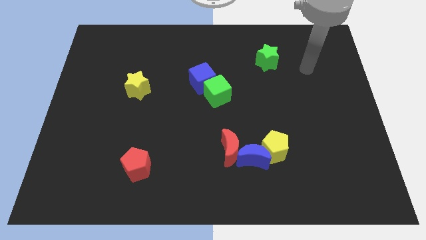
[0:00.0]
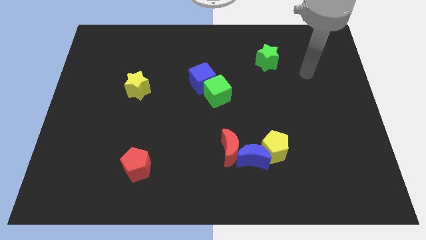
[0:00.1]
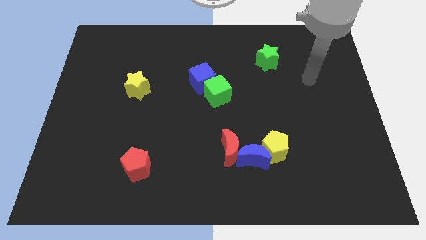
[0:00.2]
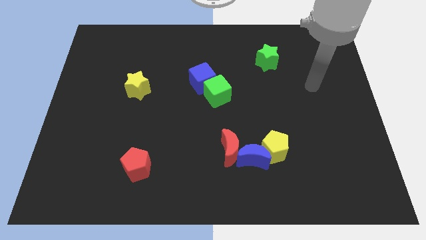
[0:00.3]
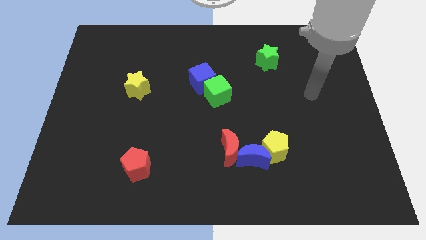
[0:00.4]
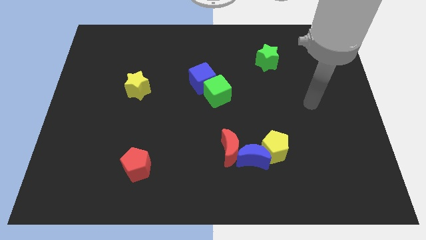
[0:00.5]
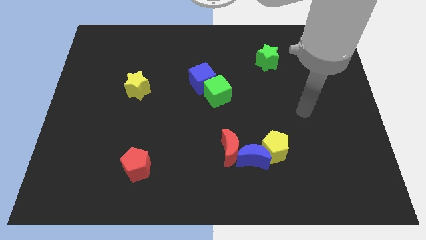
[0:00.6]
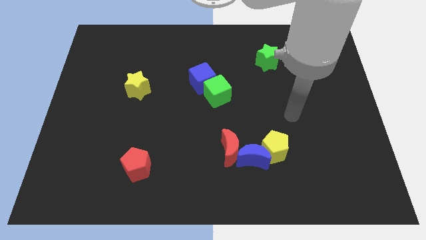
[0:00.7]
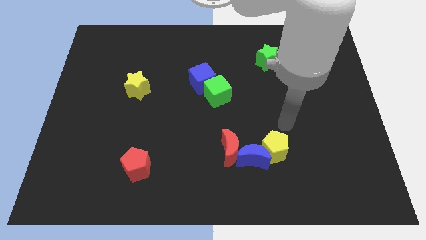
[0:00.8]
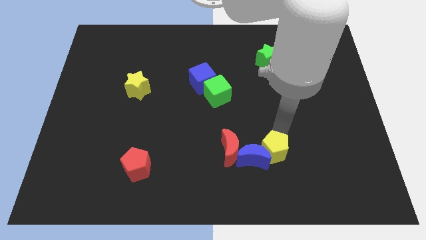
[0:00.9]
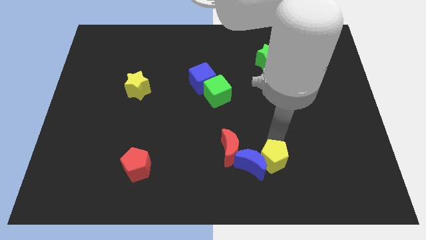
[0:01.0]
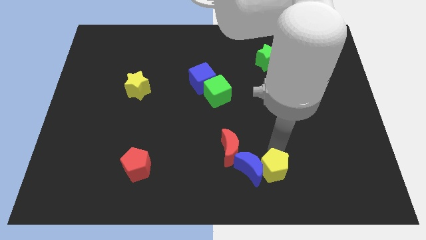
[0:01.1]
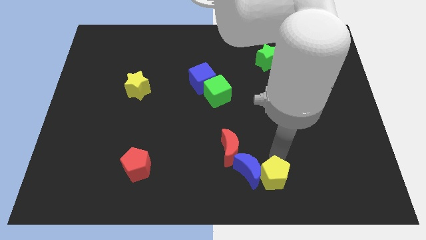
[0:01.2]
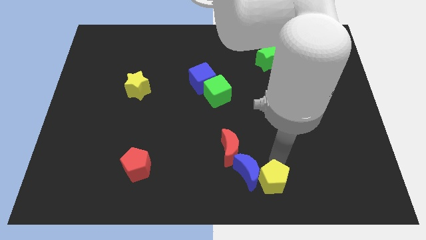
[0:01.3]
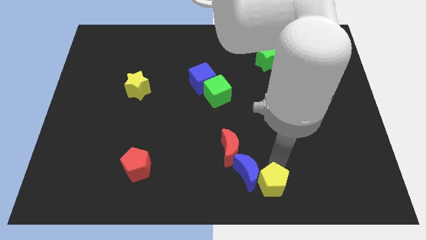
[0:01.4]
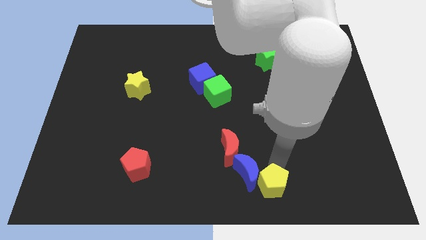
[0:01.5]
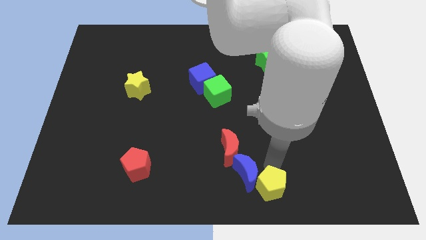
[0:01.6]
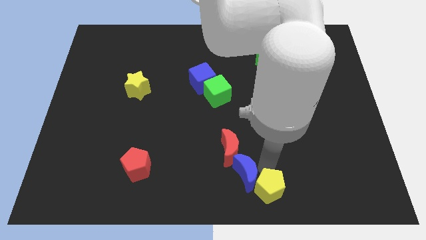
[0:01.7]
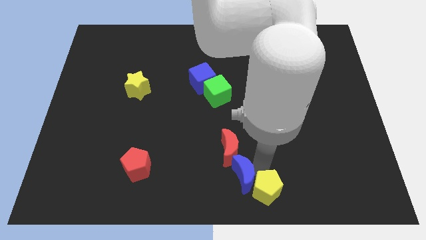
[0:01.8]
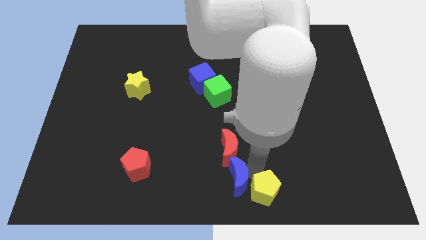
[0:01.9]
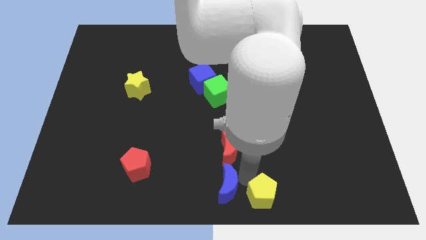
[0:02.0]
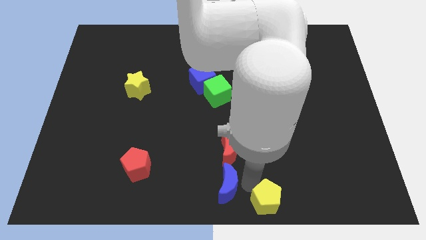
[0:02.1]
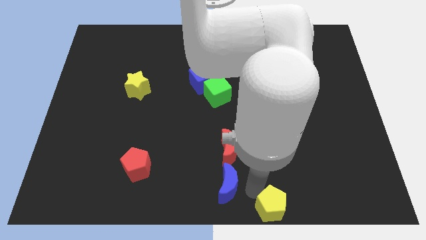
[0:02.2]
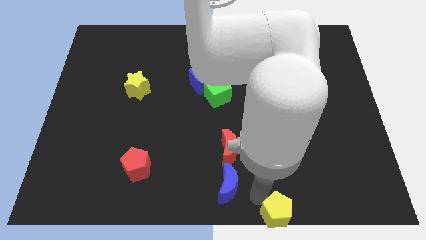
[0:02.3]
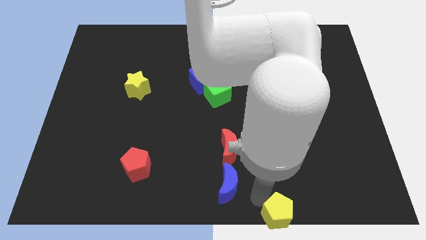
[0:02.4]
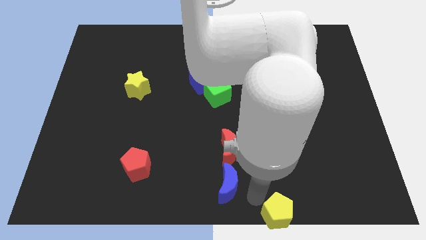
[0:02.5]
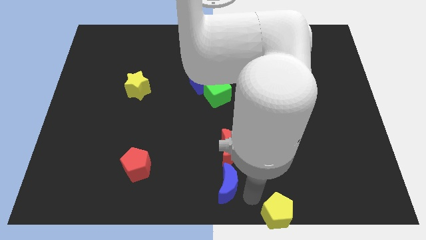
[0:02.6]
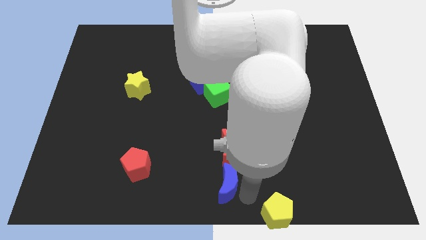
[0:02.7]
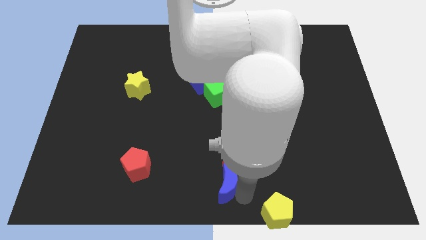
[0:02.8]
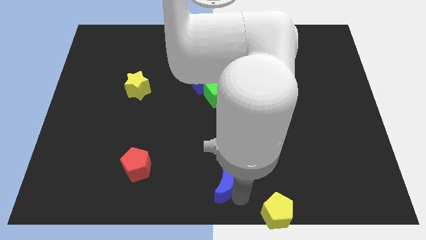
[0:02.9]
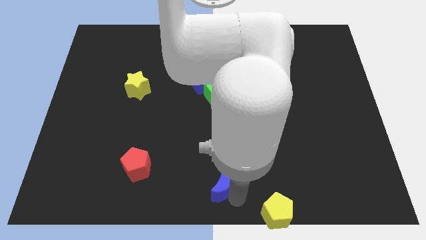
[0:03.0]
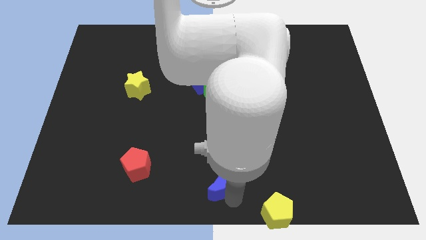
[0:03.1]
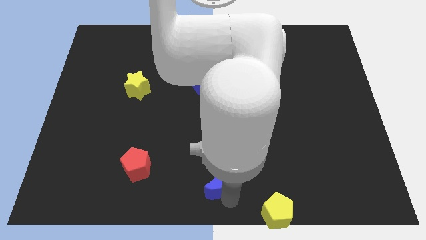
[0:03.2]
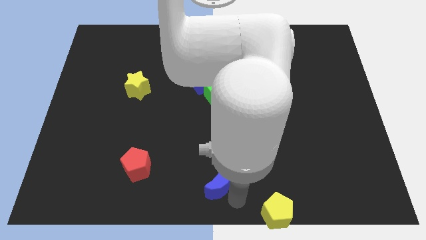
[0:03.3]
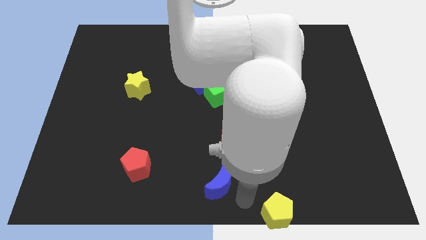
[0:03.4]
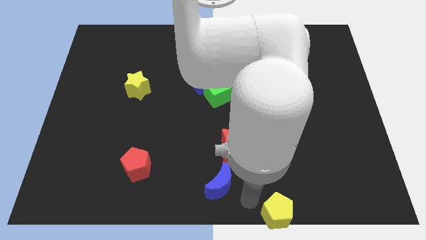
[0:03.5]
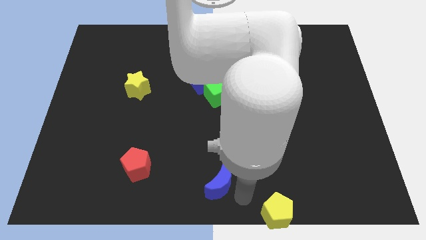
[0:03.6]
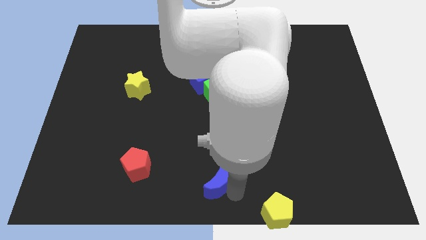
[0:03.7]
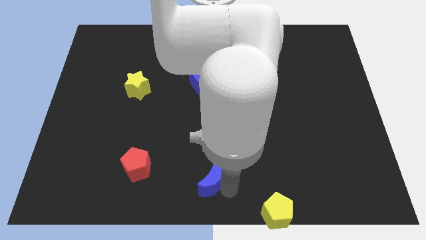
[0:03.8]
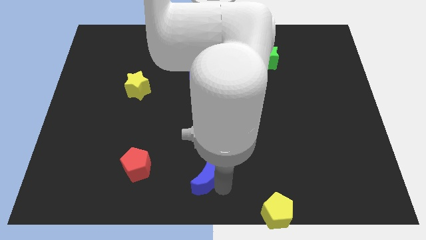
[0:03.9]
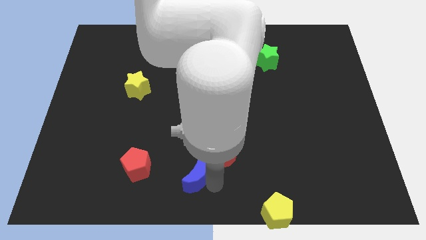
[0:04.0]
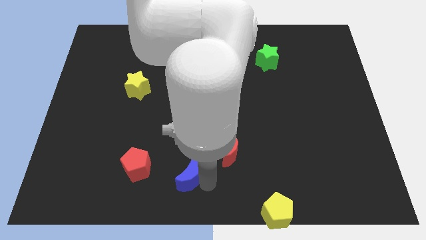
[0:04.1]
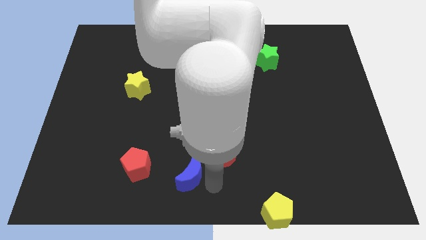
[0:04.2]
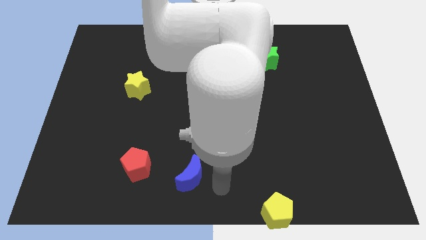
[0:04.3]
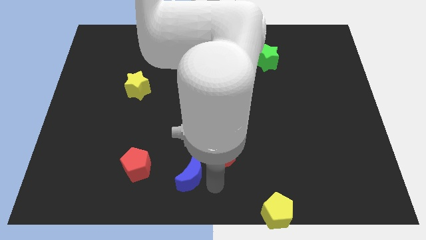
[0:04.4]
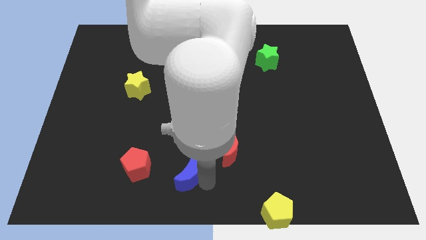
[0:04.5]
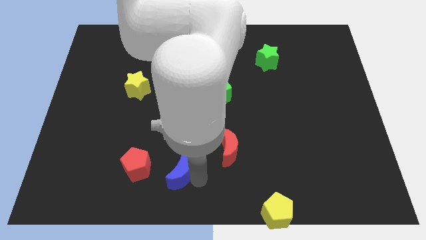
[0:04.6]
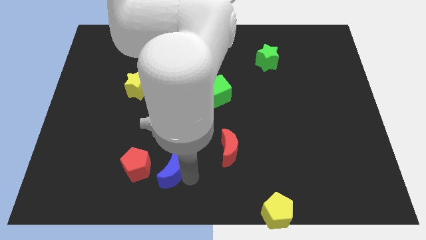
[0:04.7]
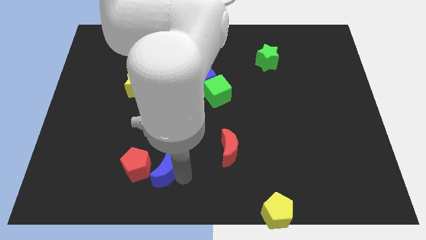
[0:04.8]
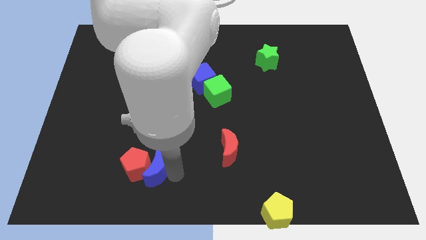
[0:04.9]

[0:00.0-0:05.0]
move the blue moon towards the red pentagon

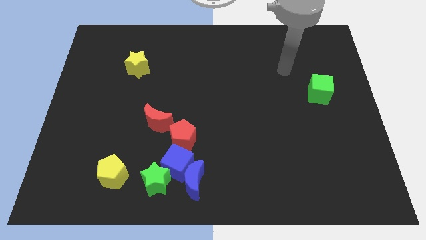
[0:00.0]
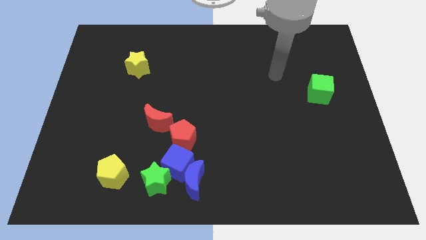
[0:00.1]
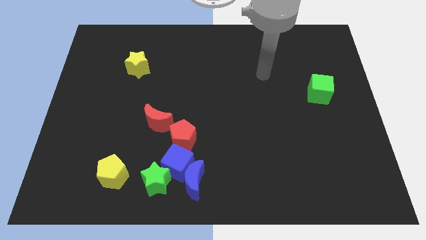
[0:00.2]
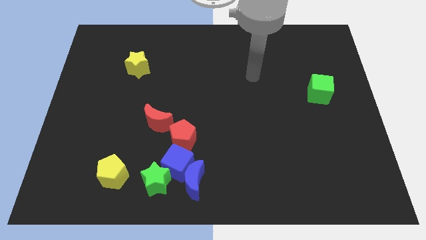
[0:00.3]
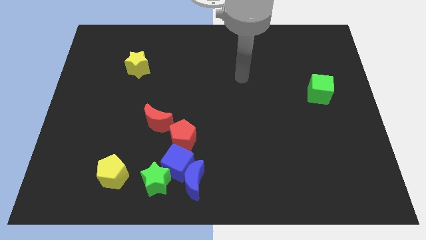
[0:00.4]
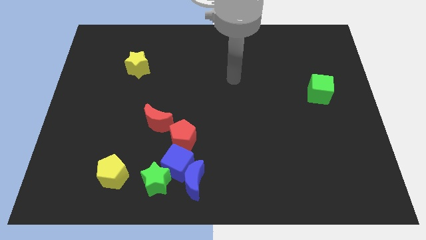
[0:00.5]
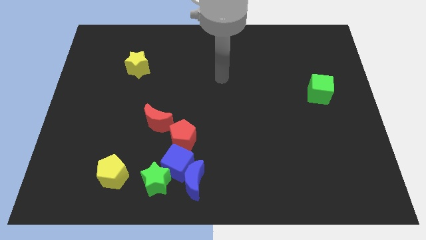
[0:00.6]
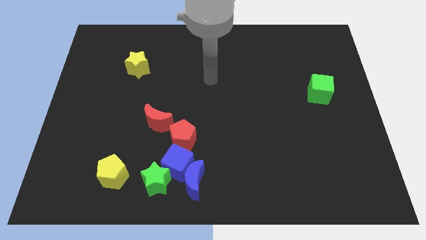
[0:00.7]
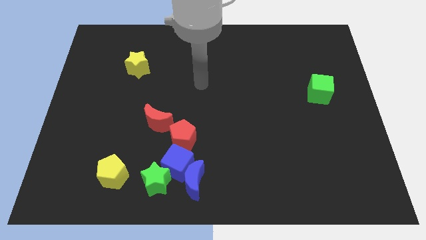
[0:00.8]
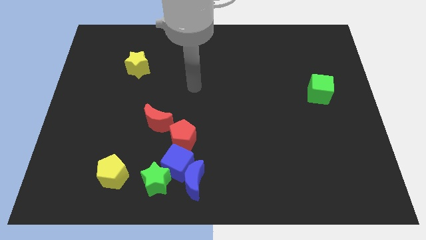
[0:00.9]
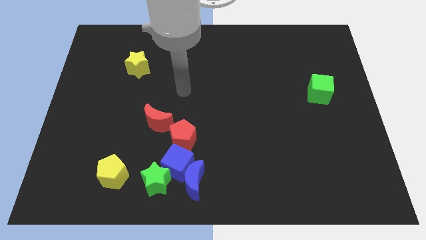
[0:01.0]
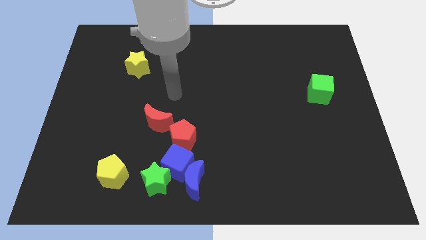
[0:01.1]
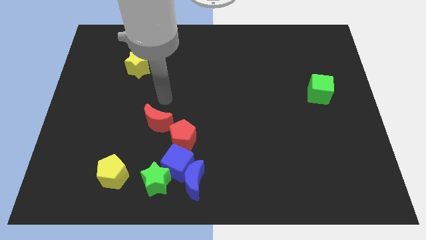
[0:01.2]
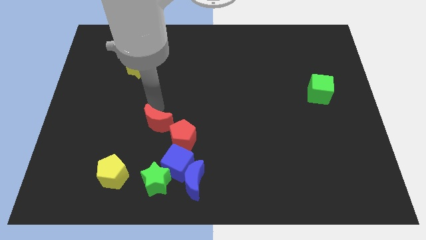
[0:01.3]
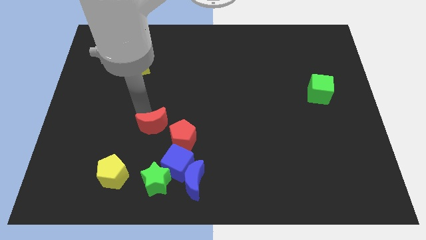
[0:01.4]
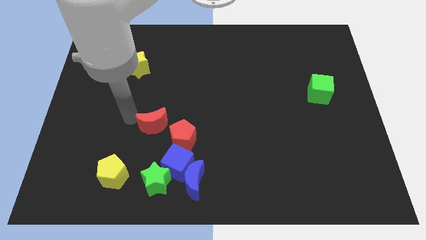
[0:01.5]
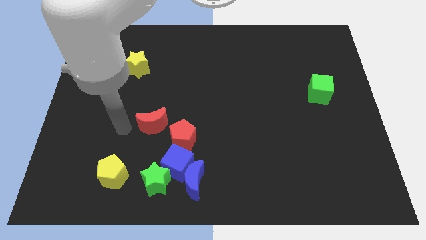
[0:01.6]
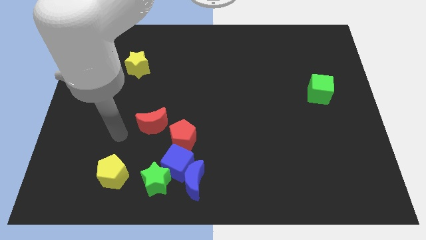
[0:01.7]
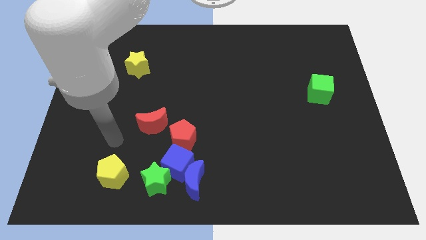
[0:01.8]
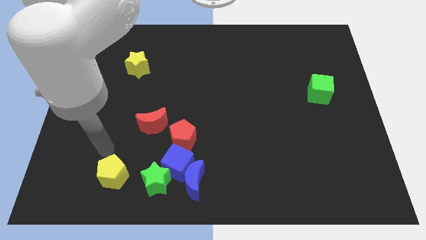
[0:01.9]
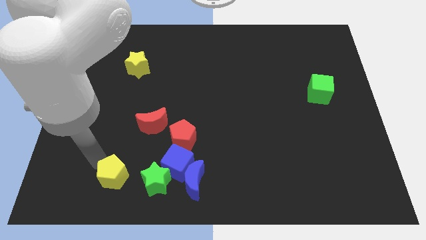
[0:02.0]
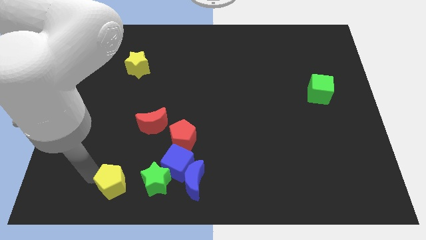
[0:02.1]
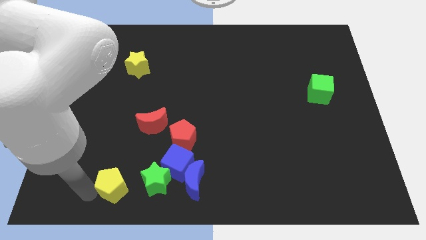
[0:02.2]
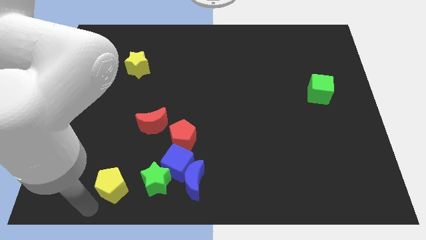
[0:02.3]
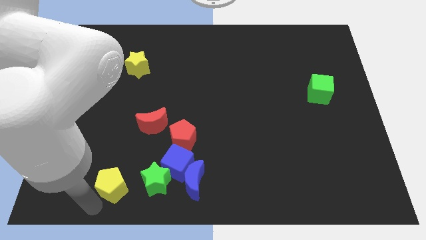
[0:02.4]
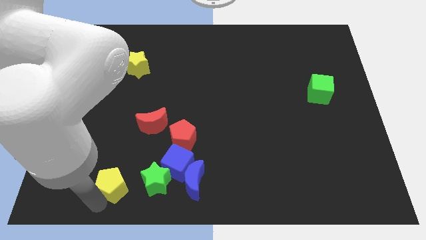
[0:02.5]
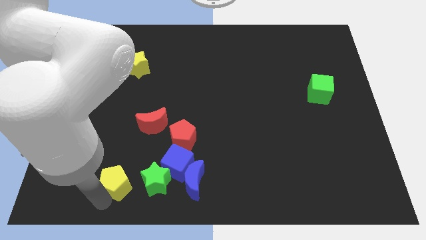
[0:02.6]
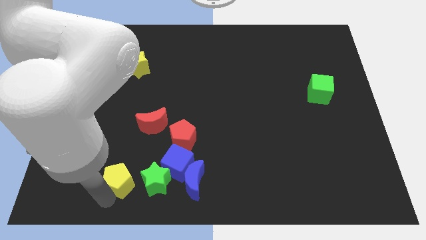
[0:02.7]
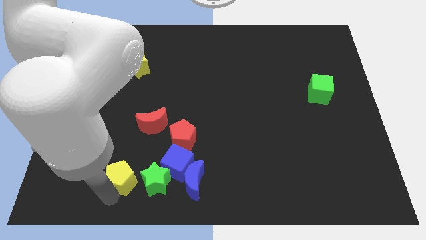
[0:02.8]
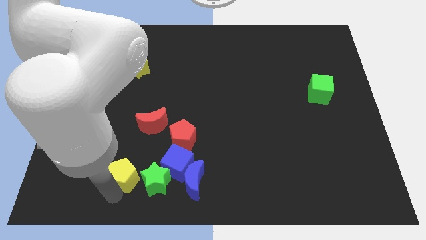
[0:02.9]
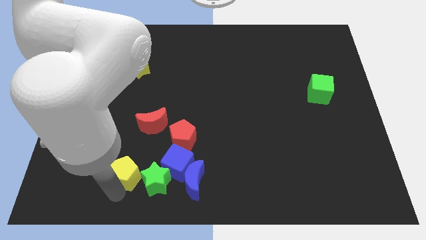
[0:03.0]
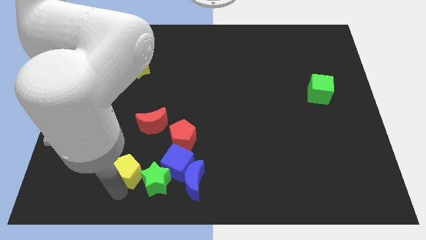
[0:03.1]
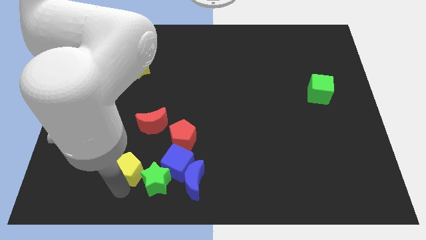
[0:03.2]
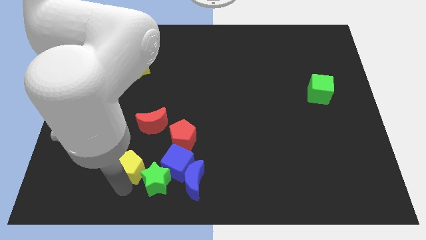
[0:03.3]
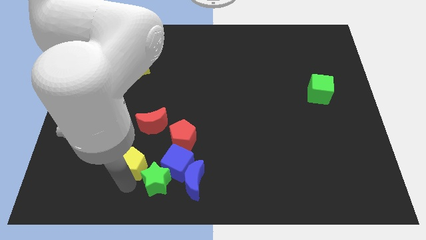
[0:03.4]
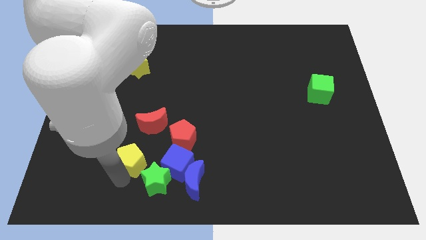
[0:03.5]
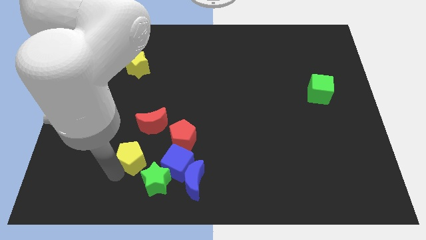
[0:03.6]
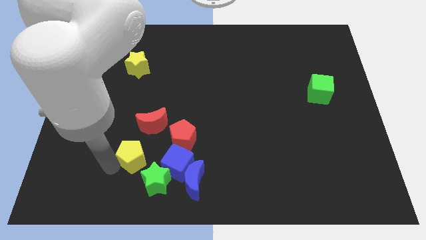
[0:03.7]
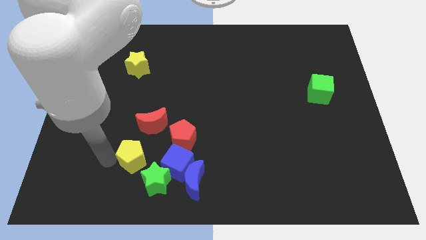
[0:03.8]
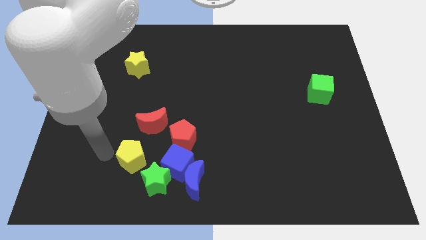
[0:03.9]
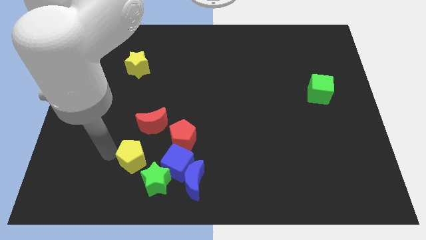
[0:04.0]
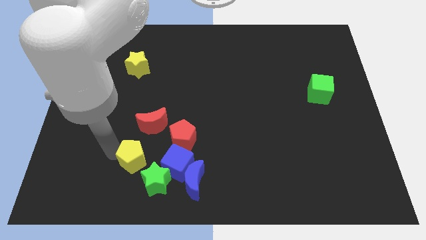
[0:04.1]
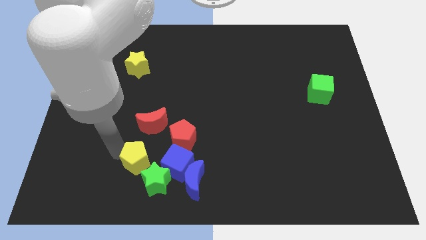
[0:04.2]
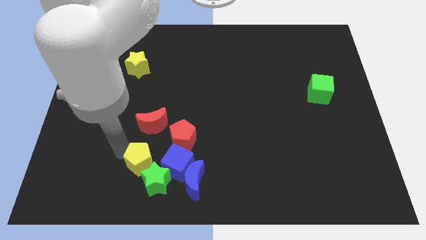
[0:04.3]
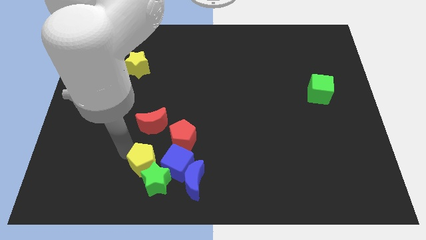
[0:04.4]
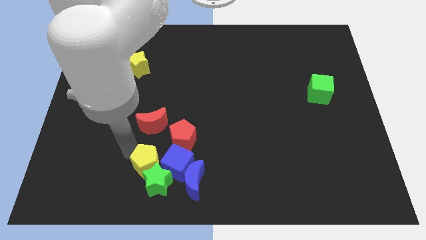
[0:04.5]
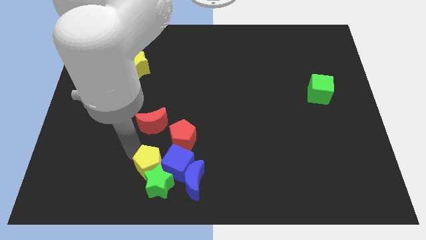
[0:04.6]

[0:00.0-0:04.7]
slide the yellow pentagon next to the blue cube
